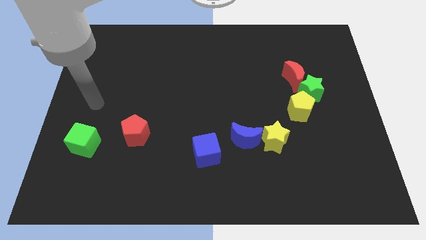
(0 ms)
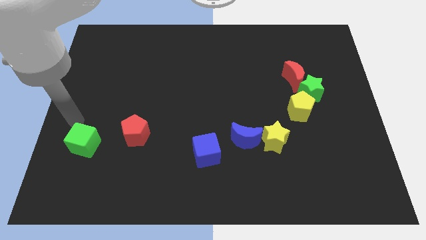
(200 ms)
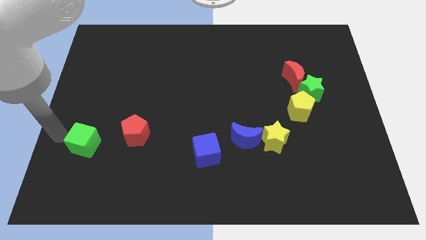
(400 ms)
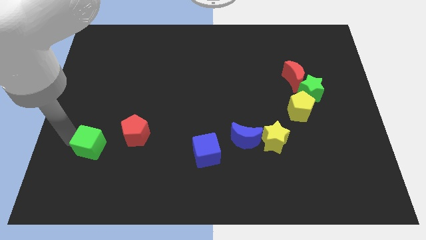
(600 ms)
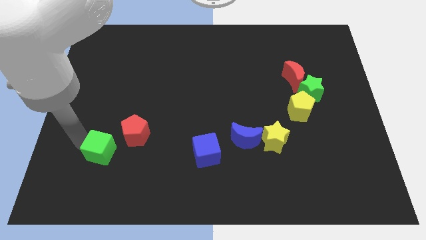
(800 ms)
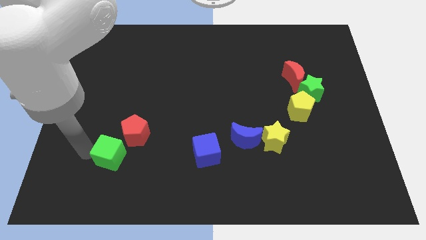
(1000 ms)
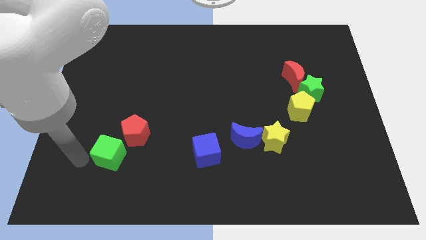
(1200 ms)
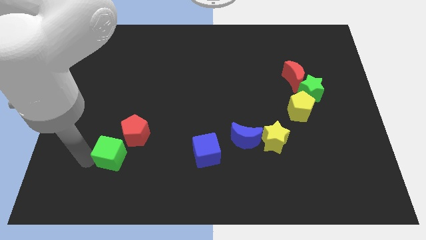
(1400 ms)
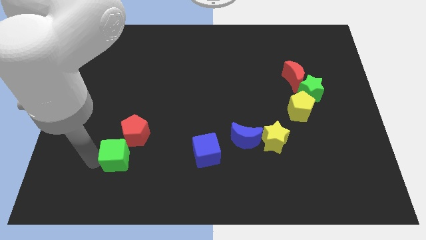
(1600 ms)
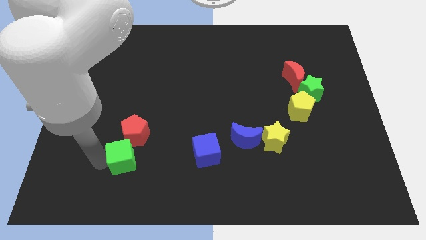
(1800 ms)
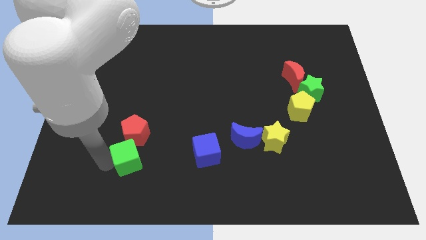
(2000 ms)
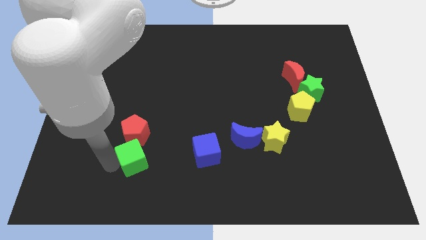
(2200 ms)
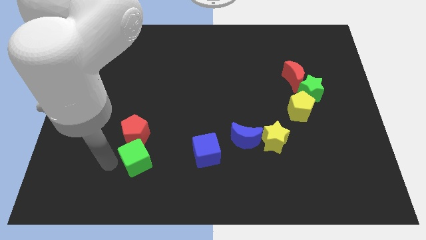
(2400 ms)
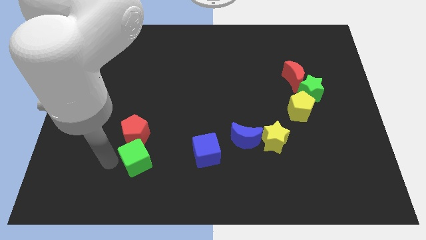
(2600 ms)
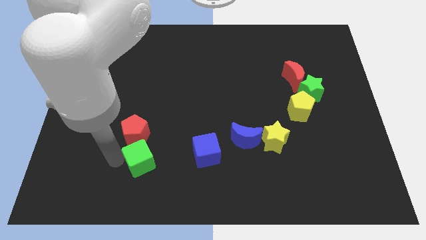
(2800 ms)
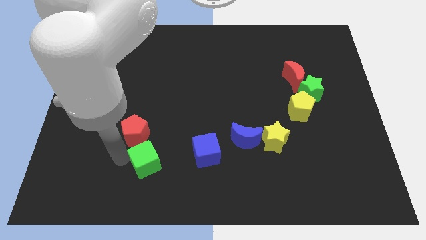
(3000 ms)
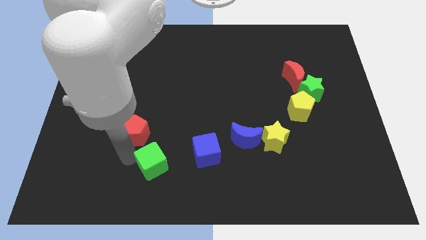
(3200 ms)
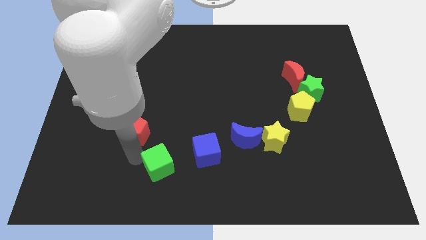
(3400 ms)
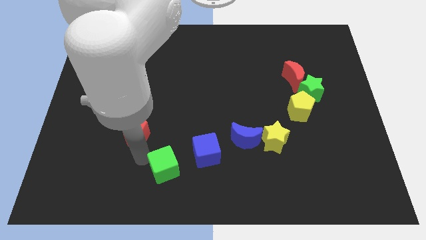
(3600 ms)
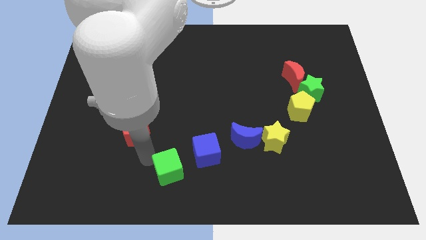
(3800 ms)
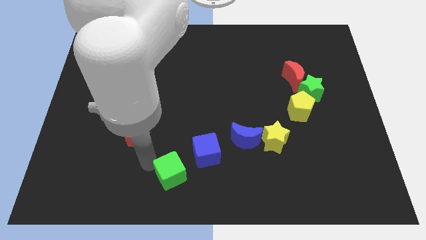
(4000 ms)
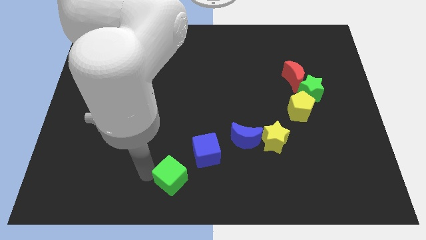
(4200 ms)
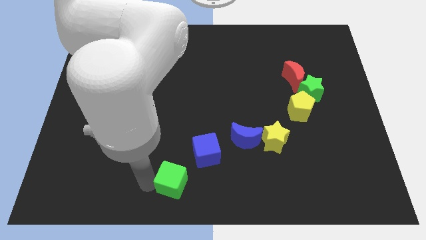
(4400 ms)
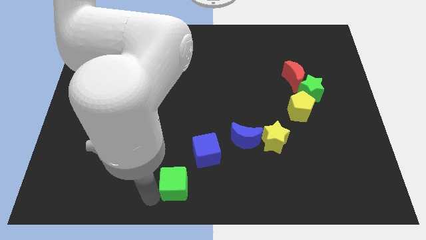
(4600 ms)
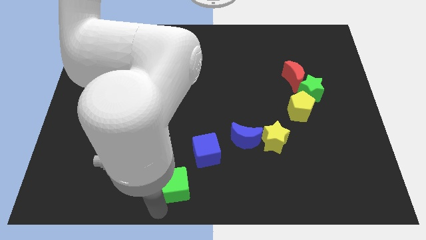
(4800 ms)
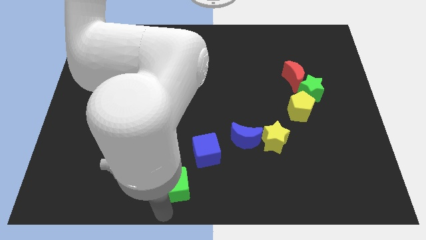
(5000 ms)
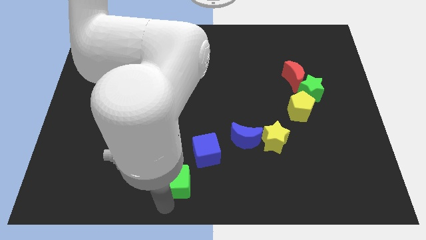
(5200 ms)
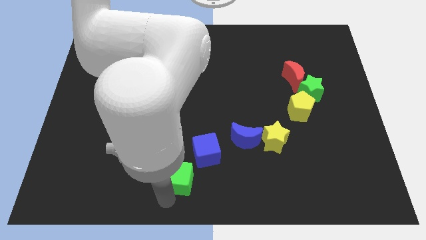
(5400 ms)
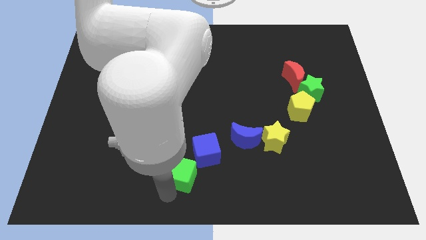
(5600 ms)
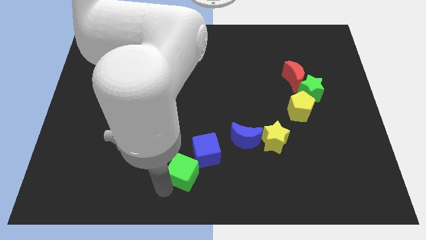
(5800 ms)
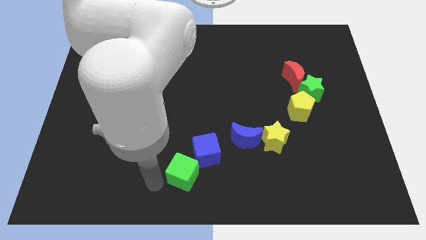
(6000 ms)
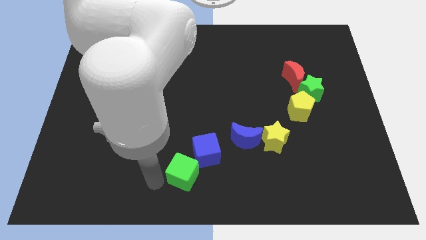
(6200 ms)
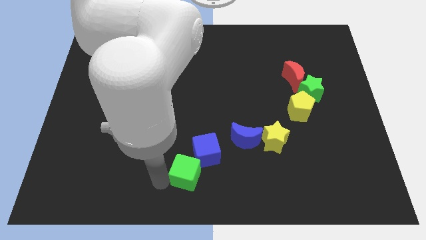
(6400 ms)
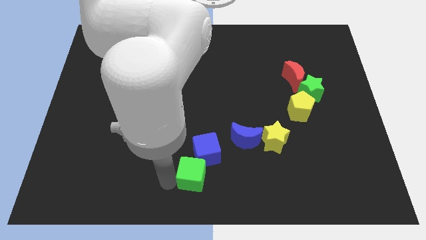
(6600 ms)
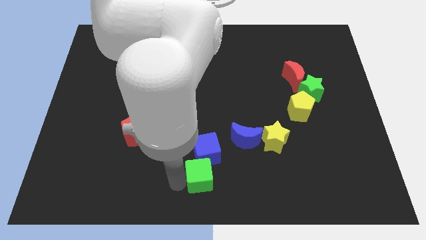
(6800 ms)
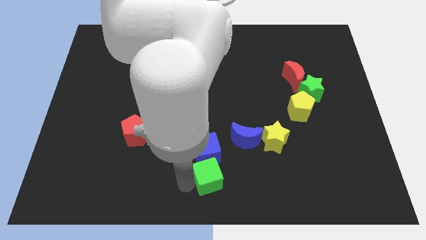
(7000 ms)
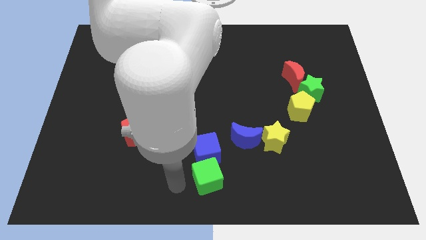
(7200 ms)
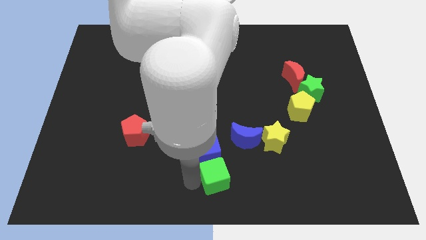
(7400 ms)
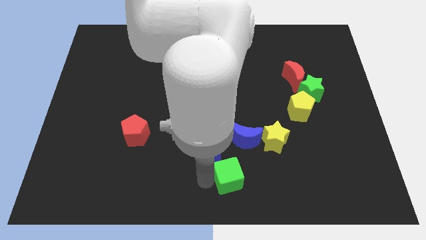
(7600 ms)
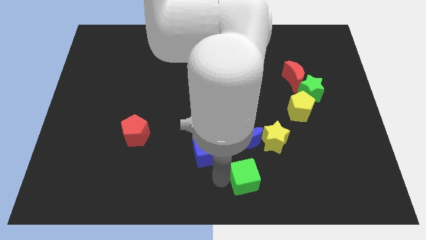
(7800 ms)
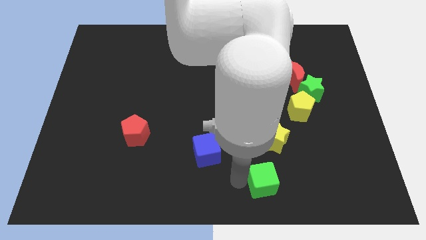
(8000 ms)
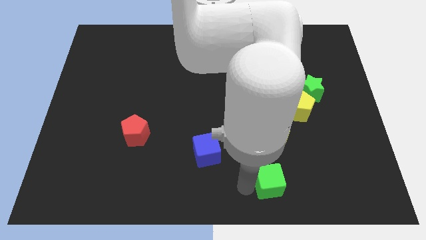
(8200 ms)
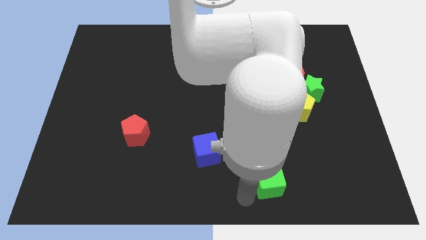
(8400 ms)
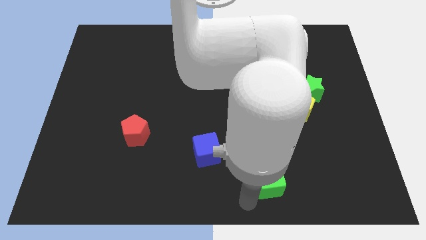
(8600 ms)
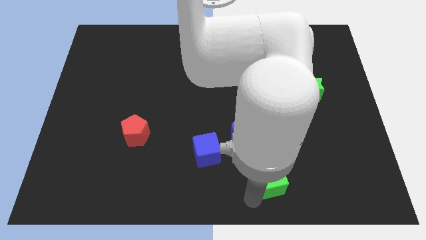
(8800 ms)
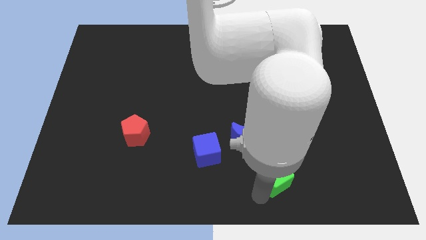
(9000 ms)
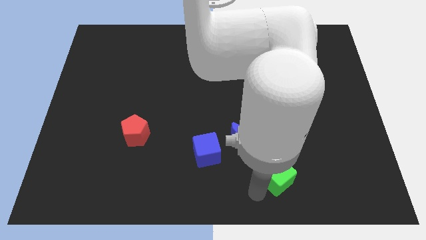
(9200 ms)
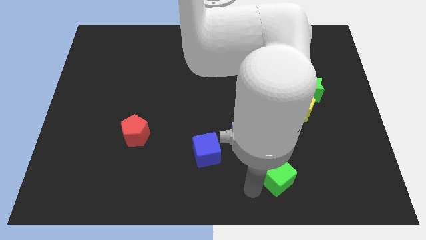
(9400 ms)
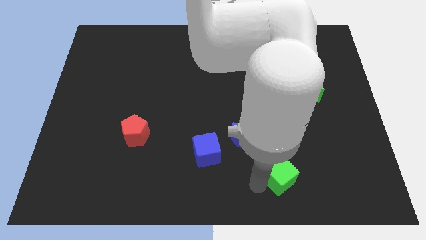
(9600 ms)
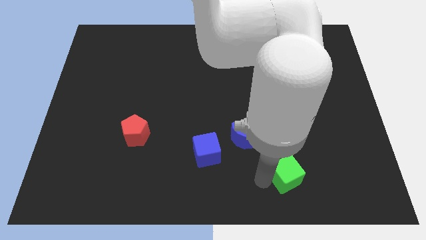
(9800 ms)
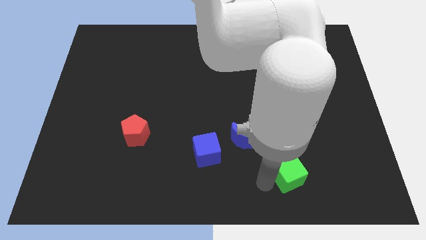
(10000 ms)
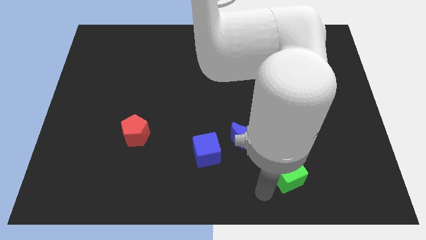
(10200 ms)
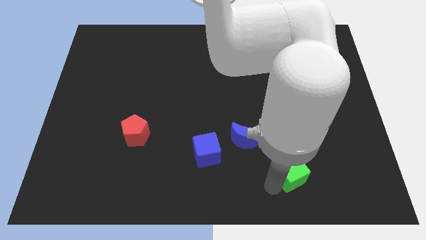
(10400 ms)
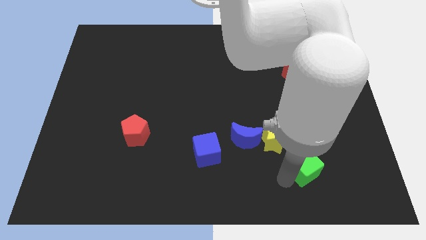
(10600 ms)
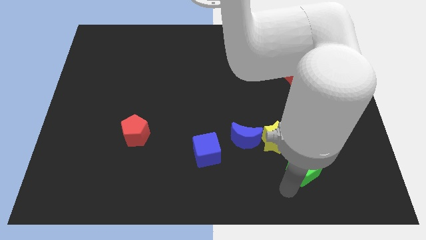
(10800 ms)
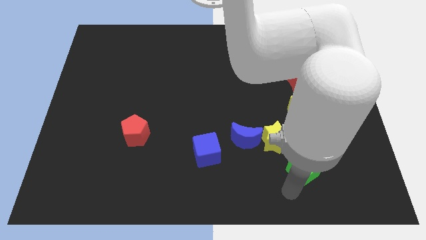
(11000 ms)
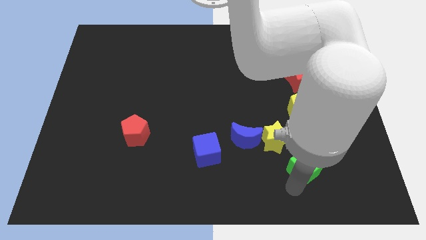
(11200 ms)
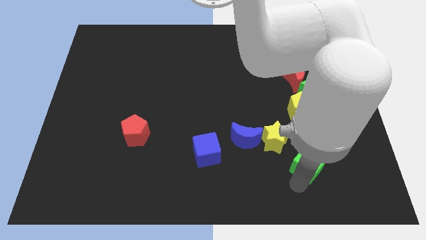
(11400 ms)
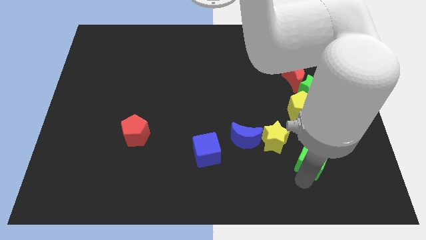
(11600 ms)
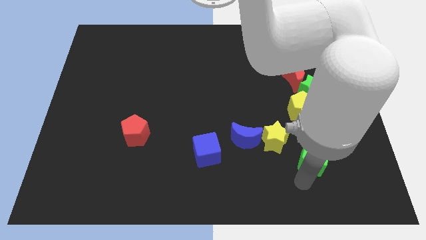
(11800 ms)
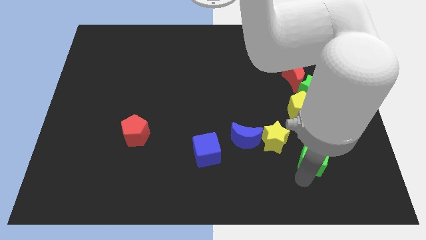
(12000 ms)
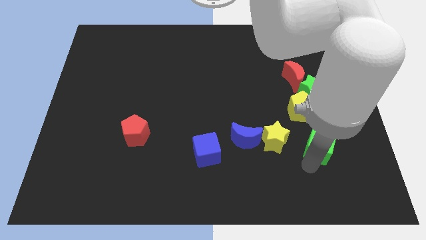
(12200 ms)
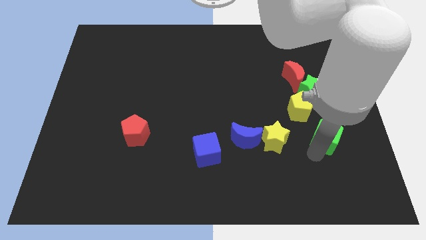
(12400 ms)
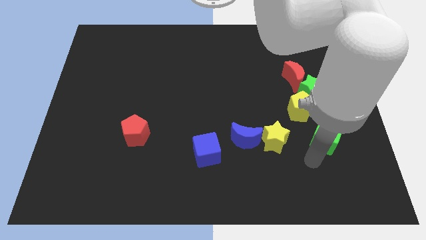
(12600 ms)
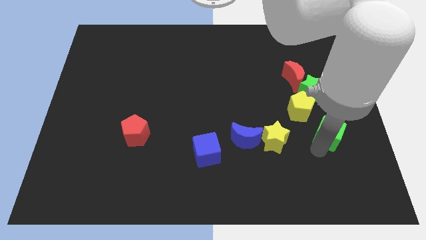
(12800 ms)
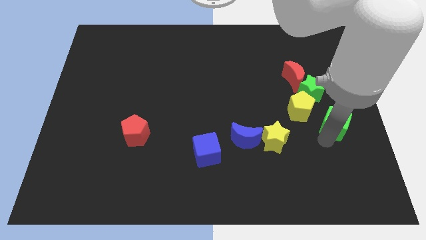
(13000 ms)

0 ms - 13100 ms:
slide the green cube diagonally down and to the right of the green star
